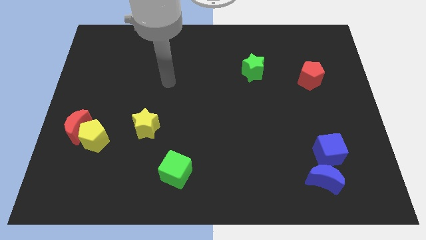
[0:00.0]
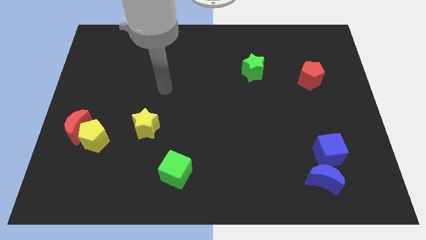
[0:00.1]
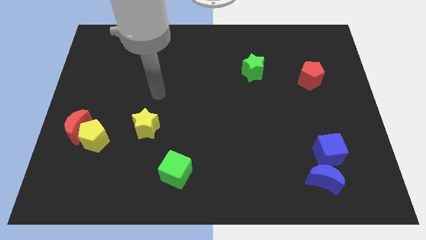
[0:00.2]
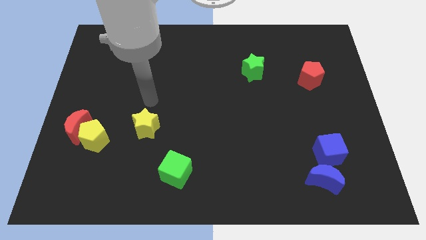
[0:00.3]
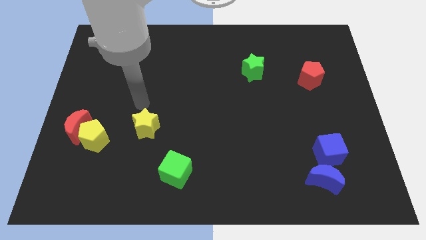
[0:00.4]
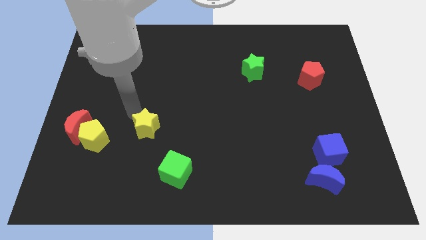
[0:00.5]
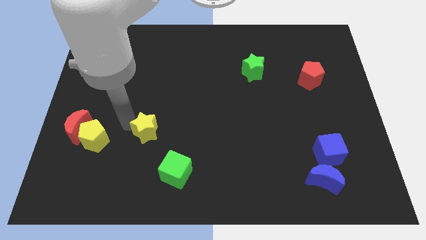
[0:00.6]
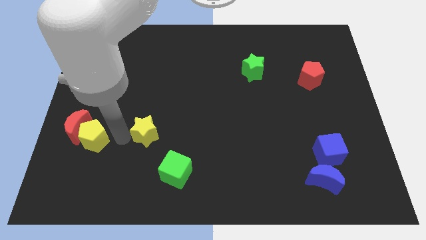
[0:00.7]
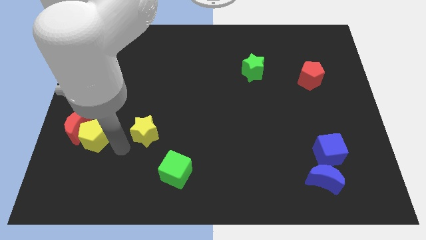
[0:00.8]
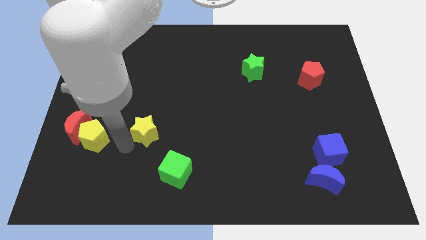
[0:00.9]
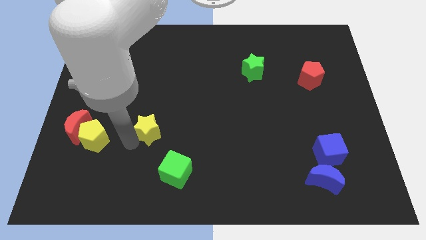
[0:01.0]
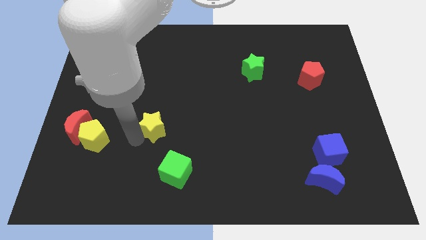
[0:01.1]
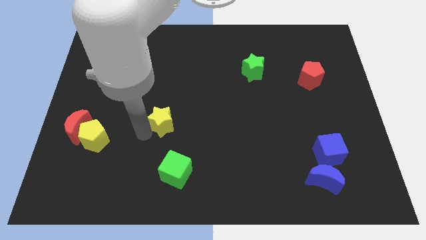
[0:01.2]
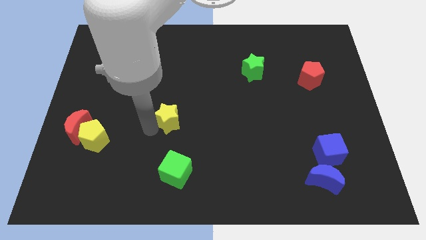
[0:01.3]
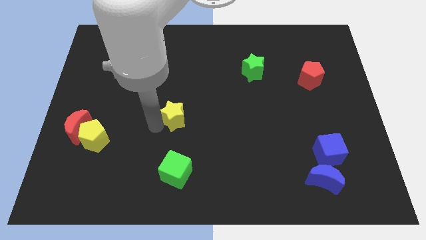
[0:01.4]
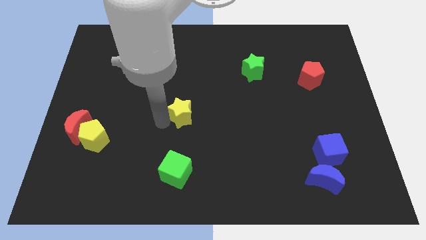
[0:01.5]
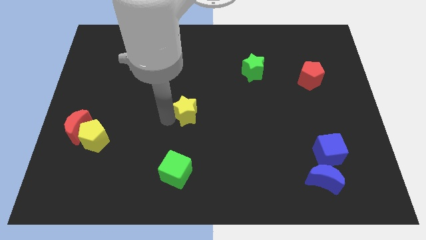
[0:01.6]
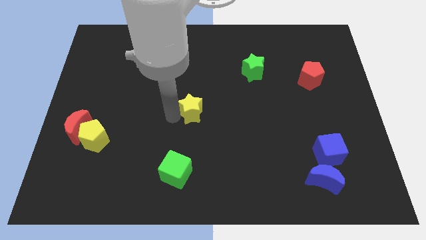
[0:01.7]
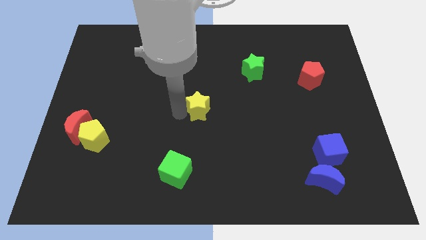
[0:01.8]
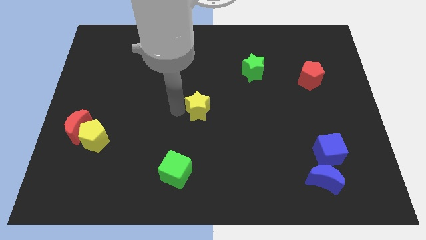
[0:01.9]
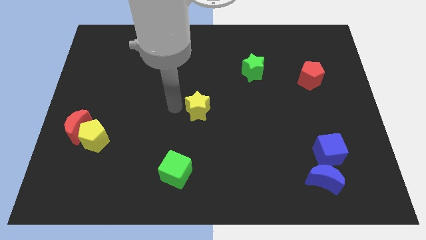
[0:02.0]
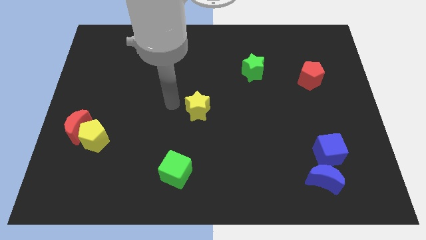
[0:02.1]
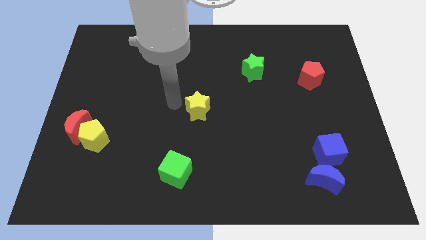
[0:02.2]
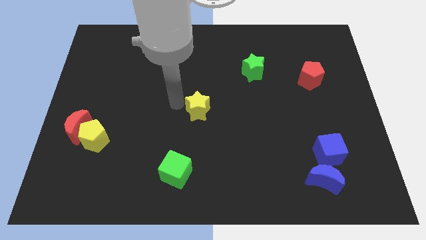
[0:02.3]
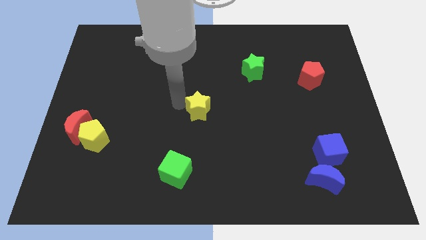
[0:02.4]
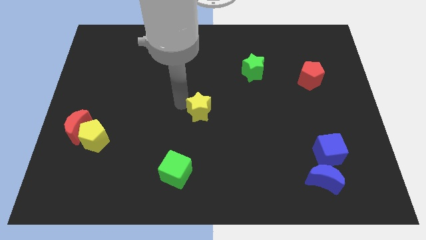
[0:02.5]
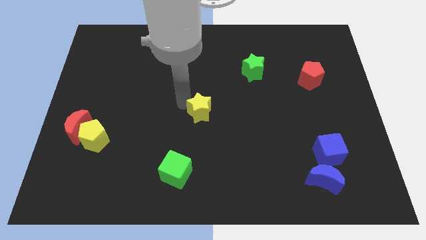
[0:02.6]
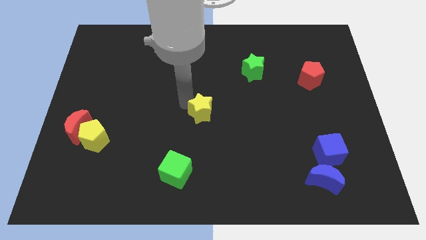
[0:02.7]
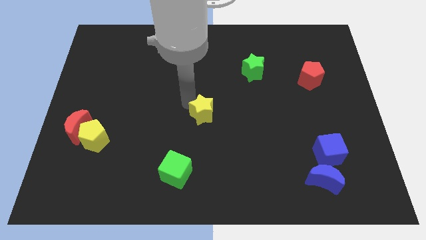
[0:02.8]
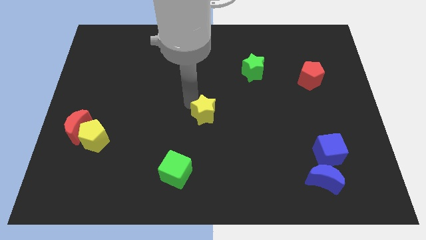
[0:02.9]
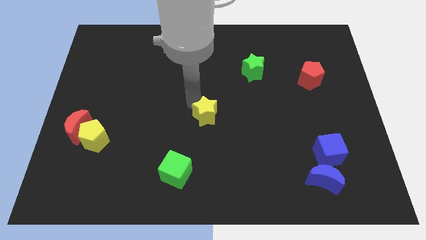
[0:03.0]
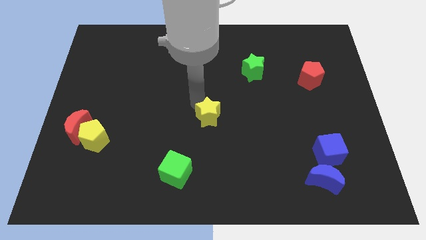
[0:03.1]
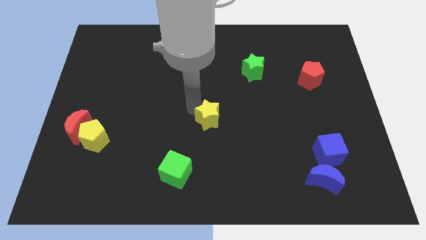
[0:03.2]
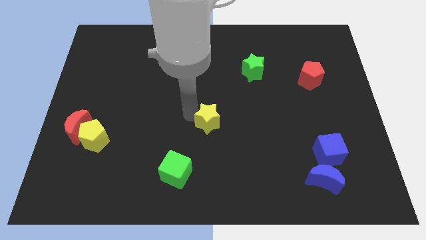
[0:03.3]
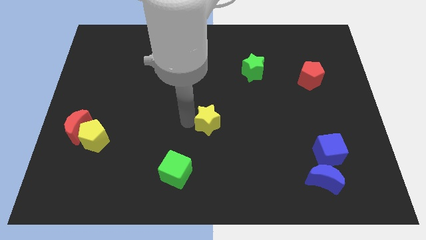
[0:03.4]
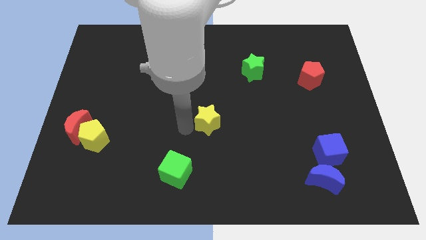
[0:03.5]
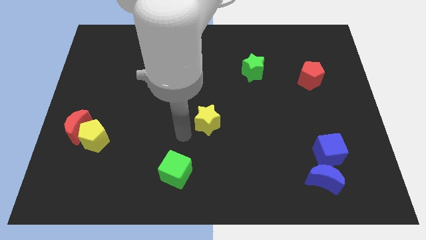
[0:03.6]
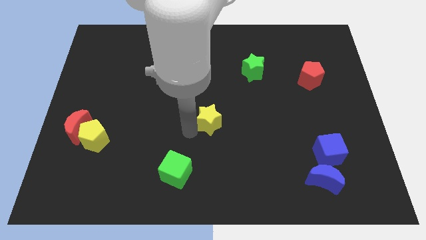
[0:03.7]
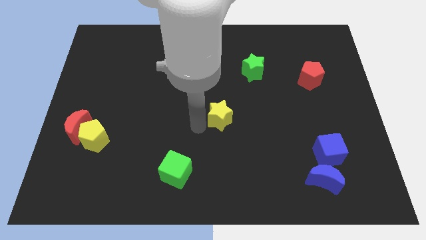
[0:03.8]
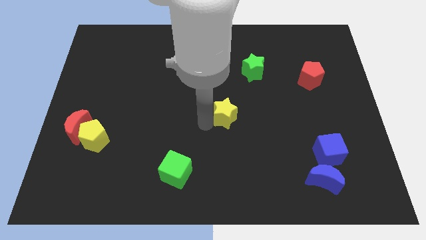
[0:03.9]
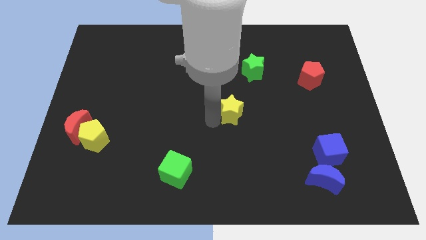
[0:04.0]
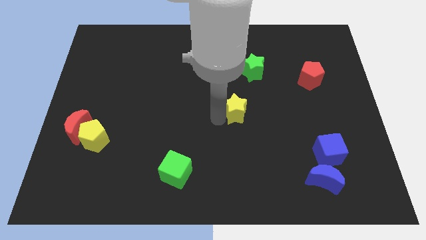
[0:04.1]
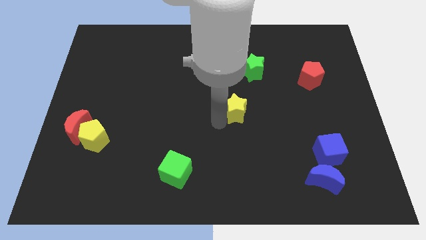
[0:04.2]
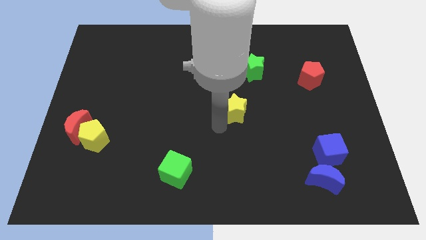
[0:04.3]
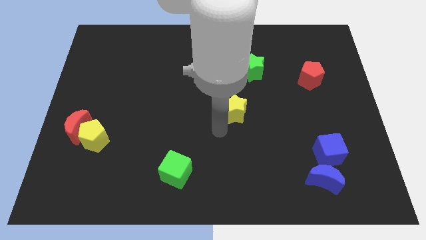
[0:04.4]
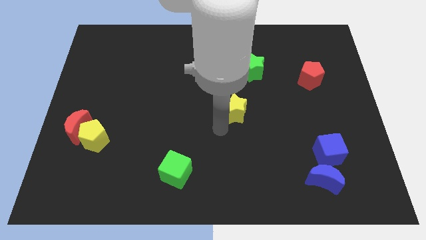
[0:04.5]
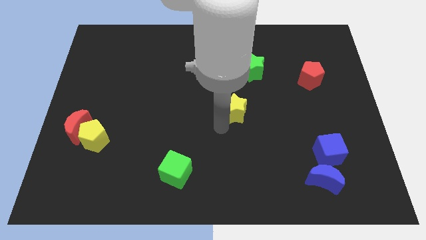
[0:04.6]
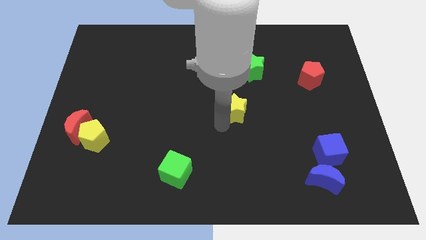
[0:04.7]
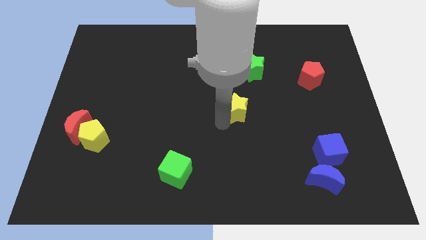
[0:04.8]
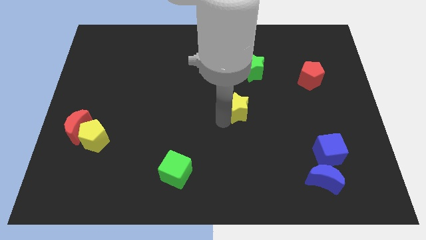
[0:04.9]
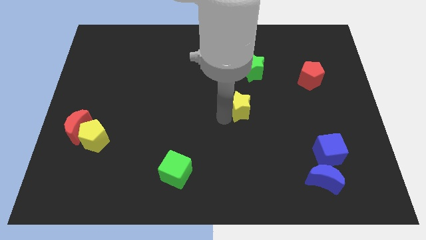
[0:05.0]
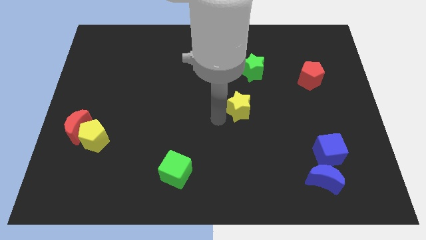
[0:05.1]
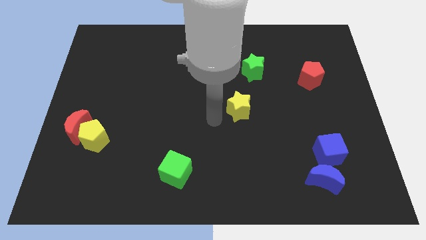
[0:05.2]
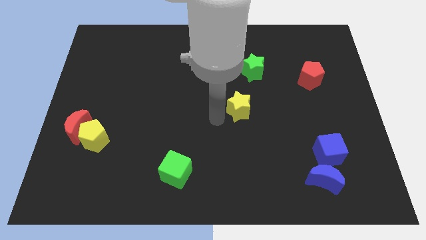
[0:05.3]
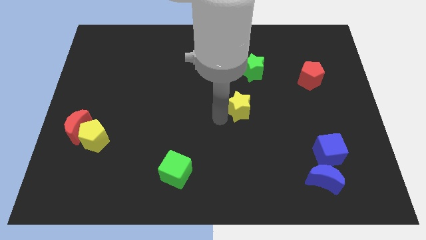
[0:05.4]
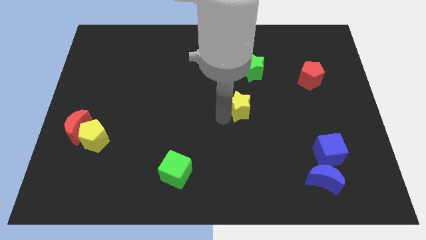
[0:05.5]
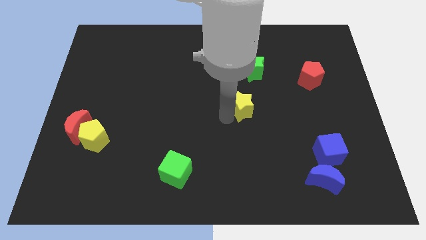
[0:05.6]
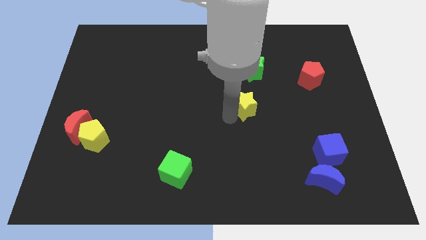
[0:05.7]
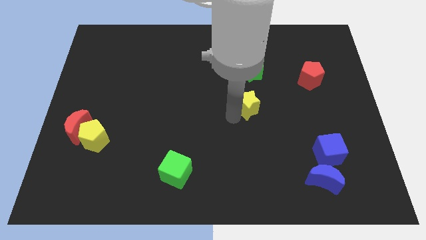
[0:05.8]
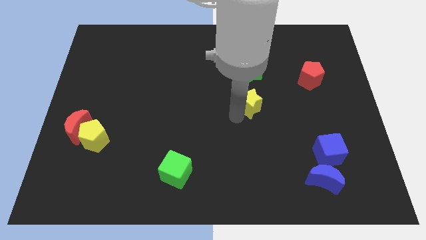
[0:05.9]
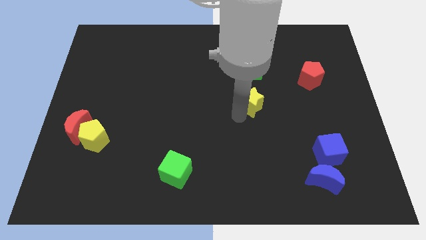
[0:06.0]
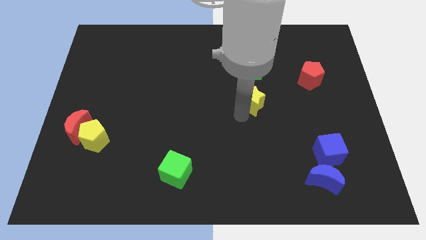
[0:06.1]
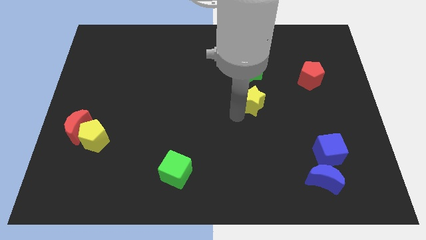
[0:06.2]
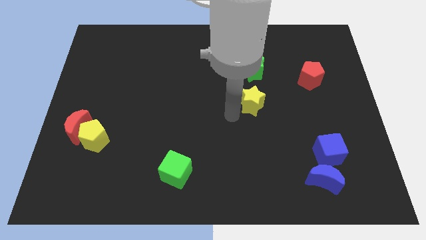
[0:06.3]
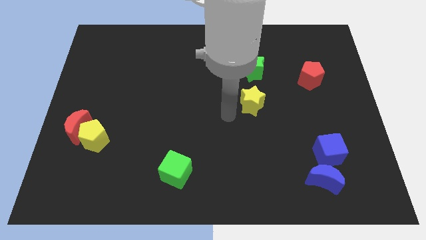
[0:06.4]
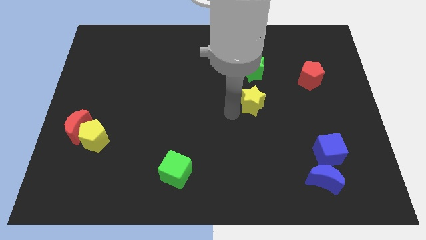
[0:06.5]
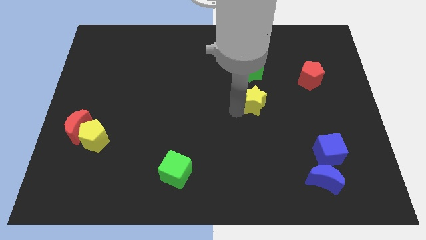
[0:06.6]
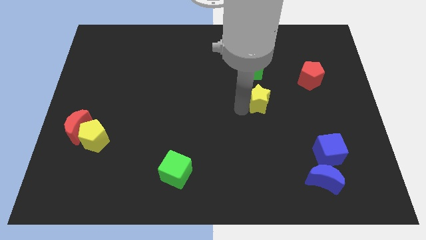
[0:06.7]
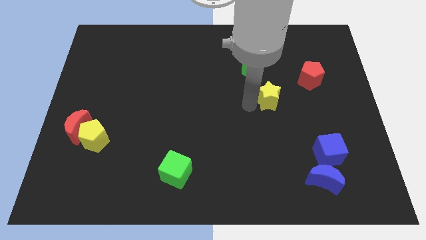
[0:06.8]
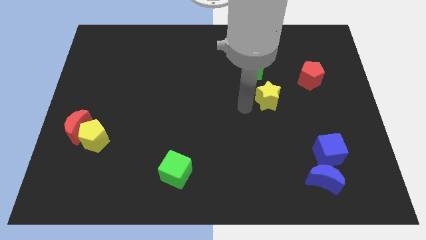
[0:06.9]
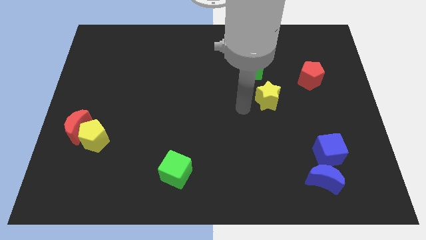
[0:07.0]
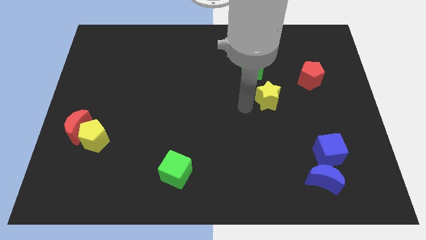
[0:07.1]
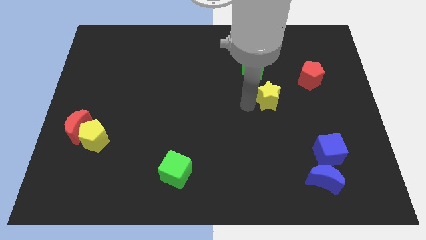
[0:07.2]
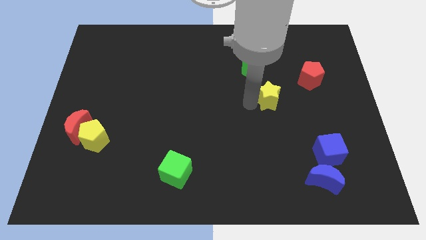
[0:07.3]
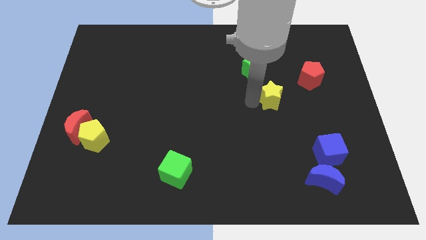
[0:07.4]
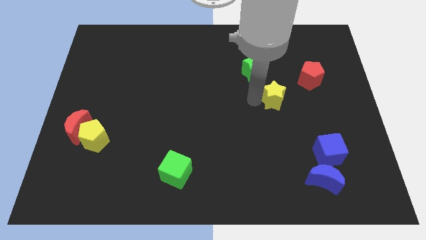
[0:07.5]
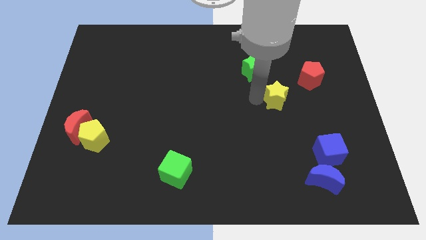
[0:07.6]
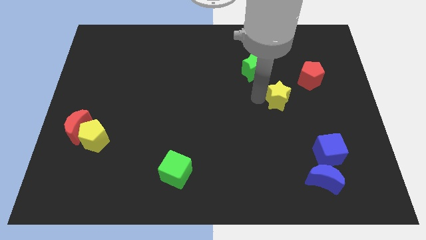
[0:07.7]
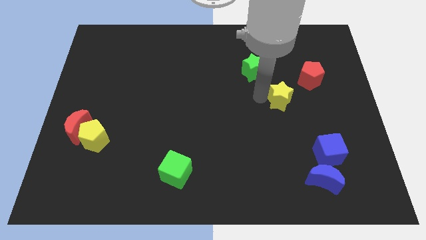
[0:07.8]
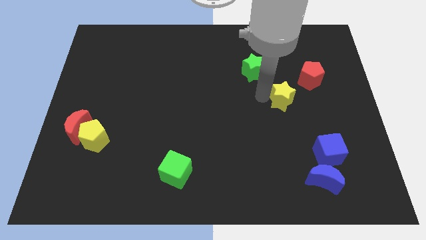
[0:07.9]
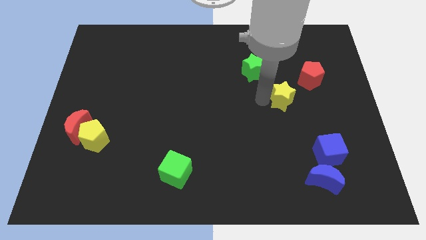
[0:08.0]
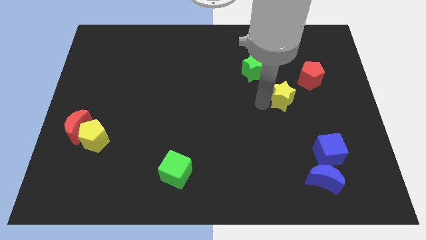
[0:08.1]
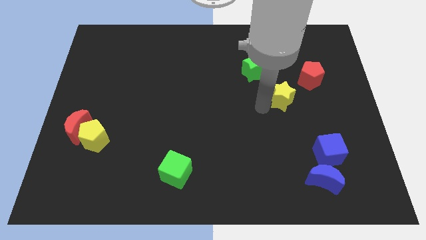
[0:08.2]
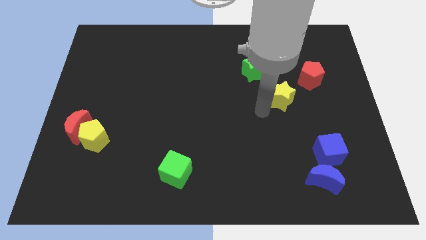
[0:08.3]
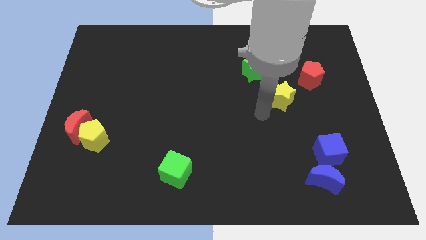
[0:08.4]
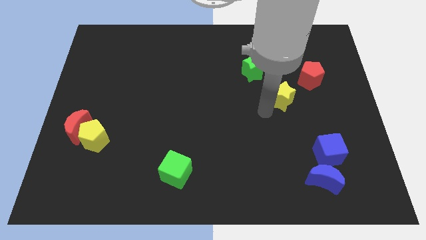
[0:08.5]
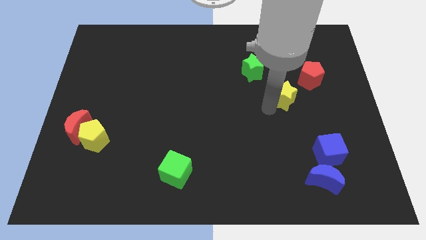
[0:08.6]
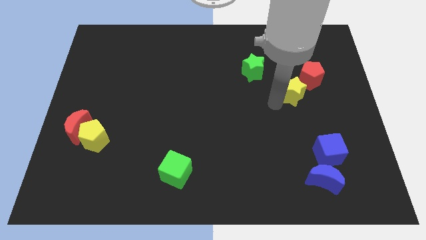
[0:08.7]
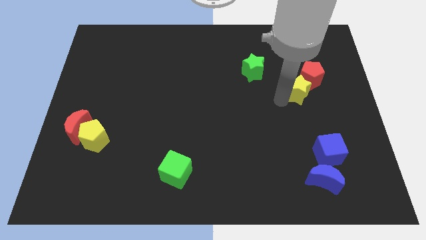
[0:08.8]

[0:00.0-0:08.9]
put the yellow star next to the red pentagon
